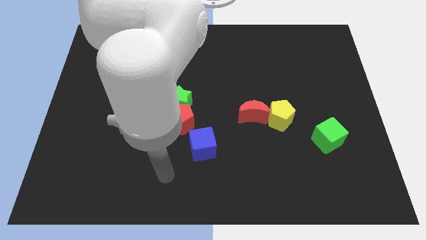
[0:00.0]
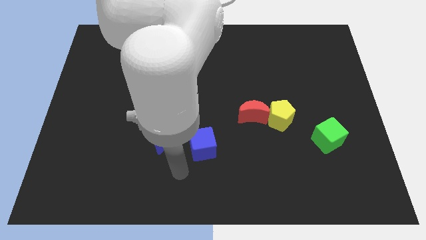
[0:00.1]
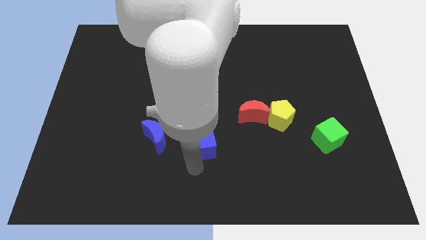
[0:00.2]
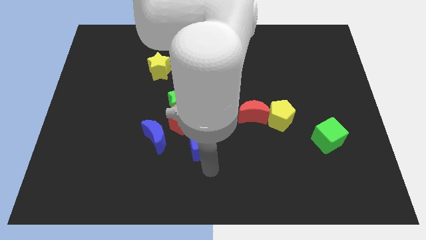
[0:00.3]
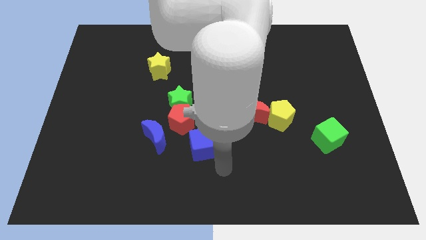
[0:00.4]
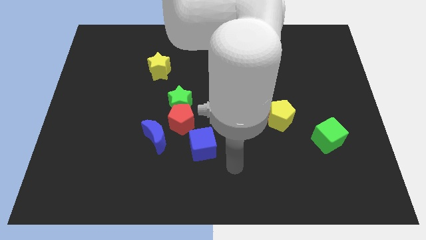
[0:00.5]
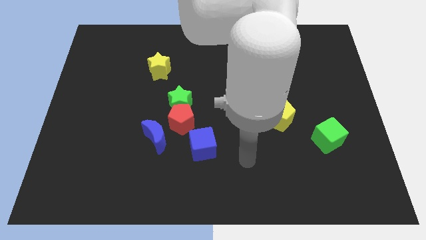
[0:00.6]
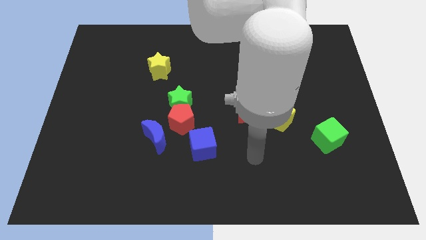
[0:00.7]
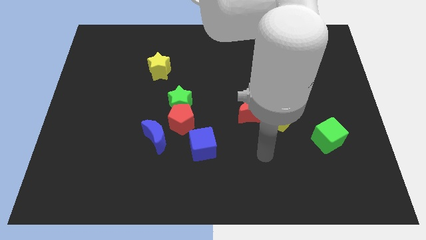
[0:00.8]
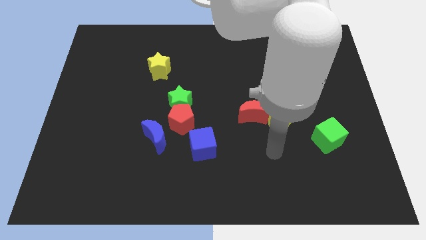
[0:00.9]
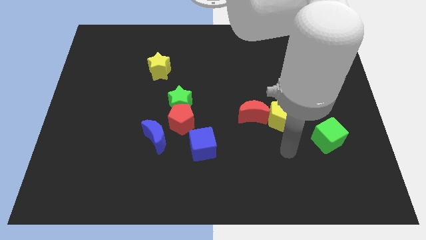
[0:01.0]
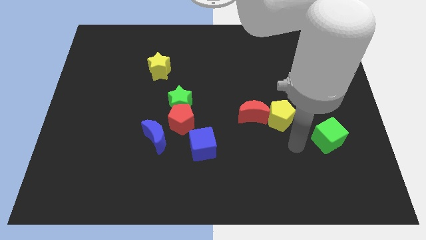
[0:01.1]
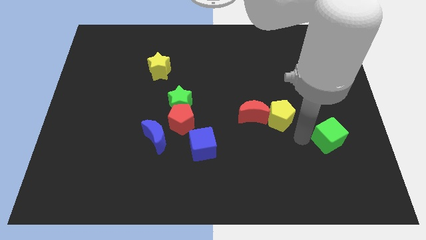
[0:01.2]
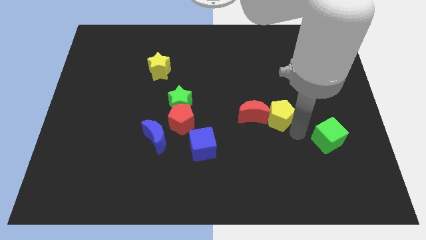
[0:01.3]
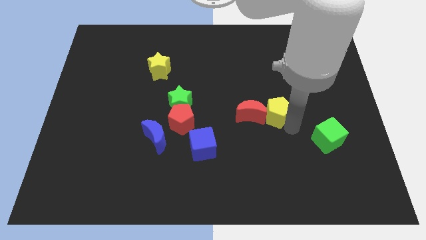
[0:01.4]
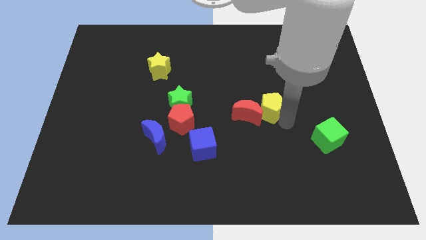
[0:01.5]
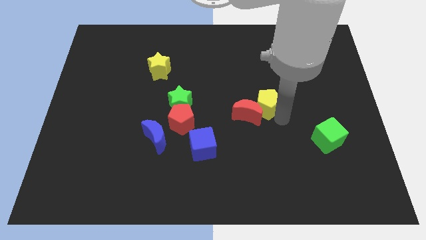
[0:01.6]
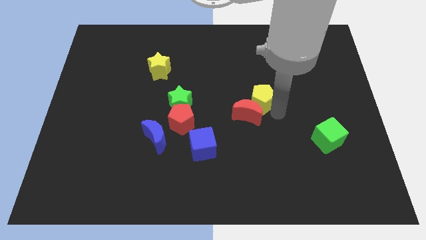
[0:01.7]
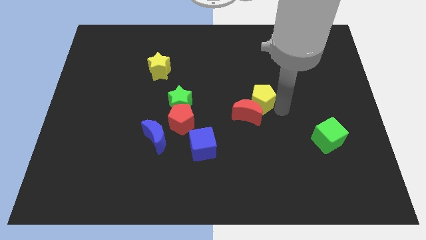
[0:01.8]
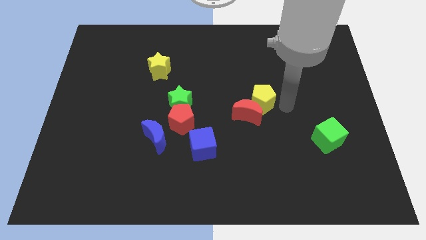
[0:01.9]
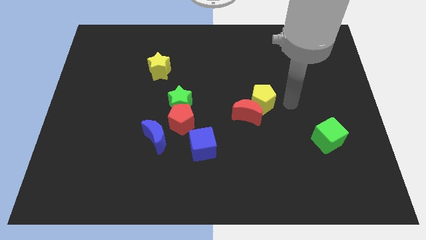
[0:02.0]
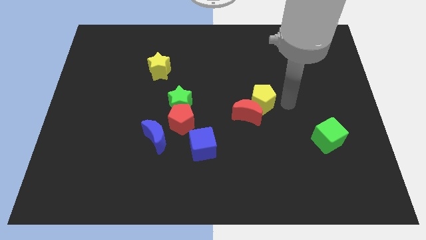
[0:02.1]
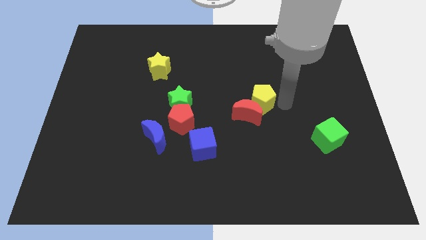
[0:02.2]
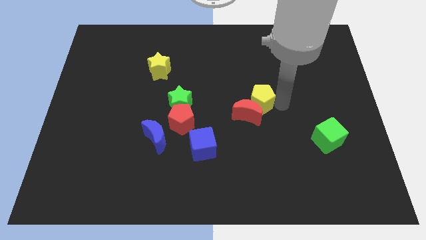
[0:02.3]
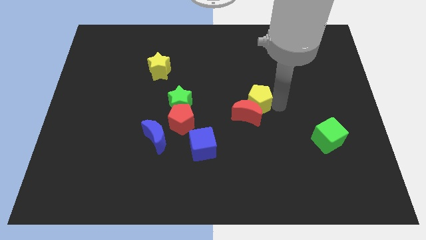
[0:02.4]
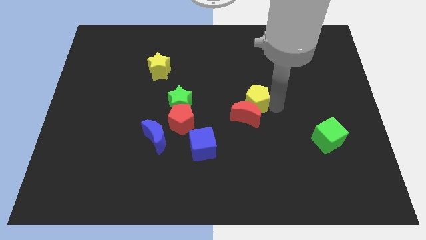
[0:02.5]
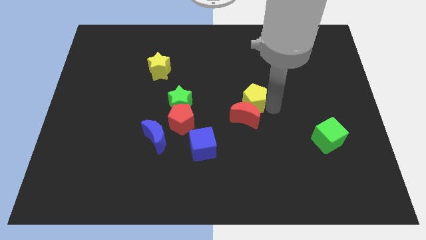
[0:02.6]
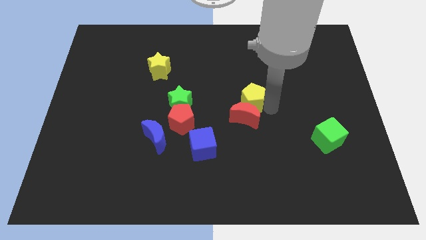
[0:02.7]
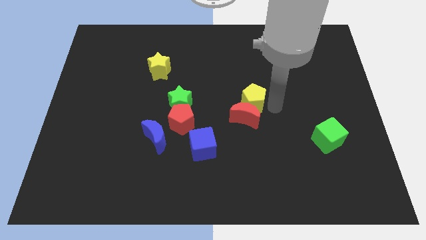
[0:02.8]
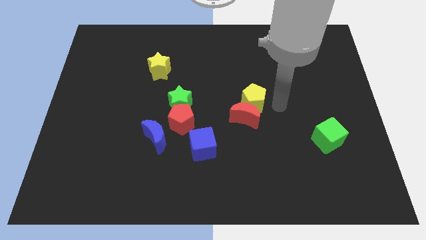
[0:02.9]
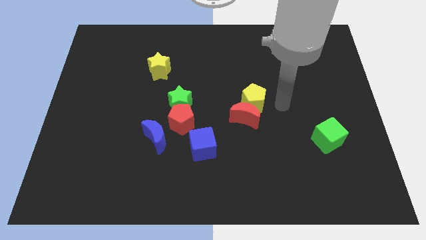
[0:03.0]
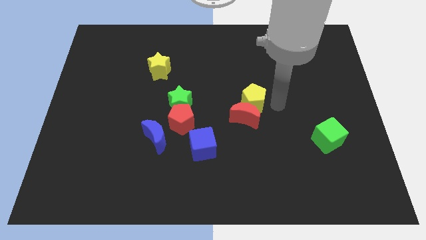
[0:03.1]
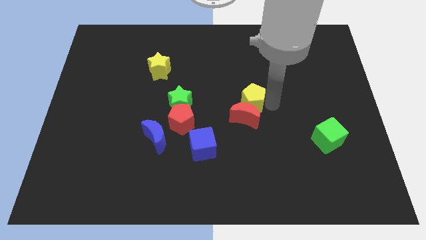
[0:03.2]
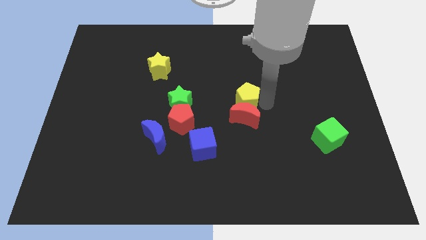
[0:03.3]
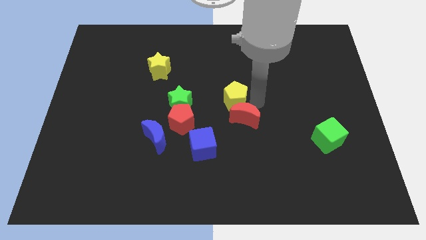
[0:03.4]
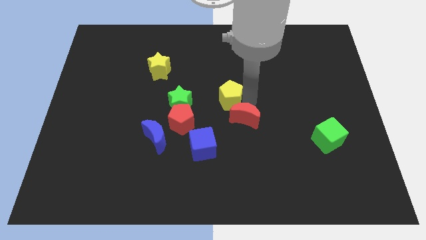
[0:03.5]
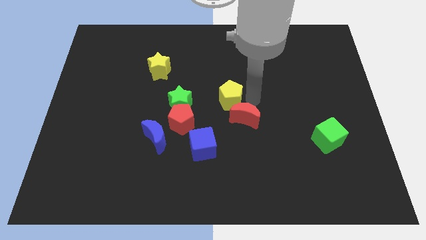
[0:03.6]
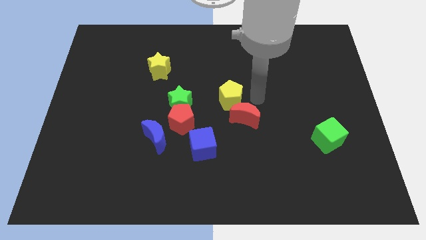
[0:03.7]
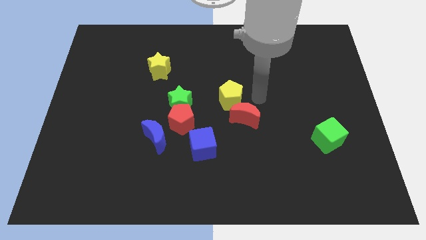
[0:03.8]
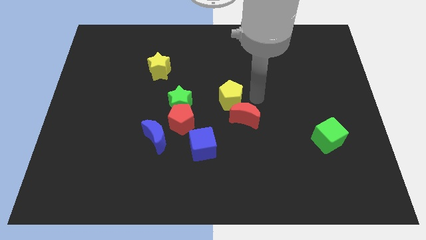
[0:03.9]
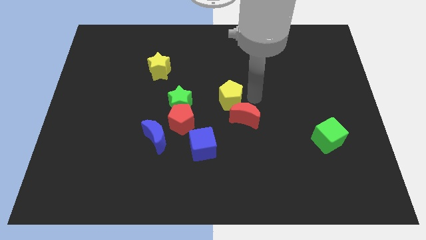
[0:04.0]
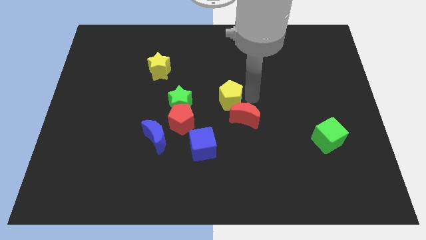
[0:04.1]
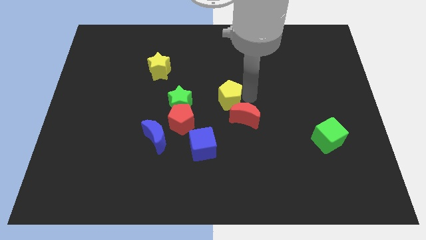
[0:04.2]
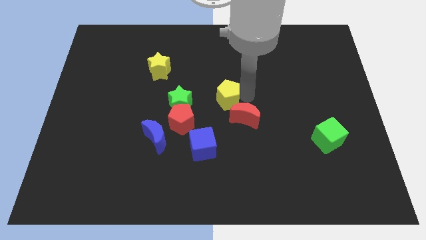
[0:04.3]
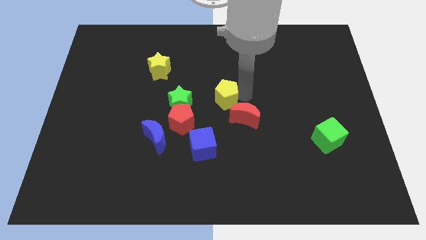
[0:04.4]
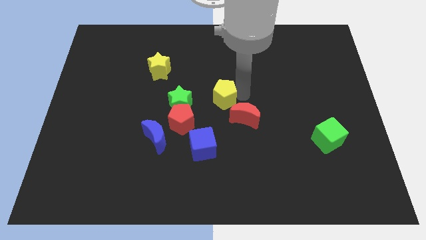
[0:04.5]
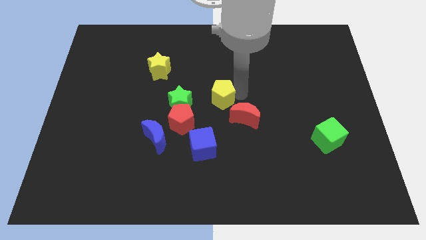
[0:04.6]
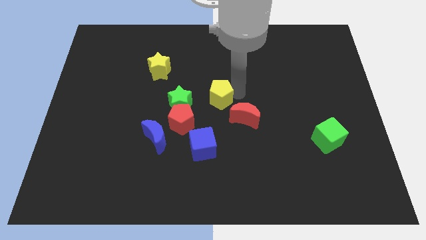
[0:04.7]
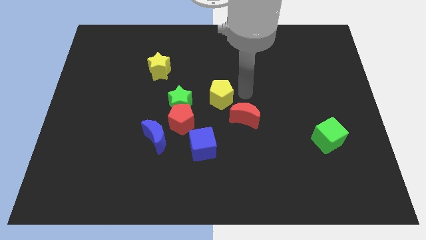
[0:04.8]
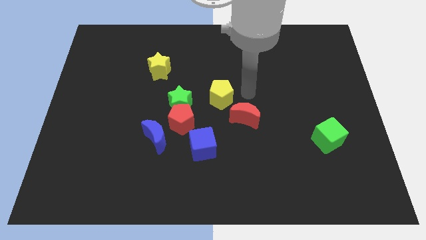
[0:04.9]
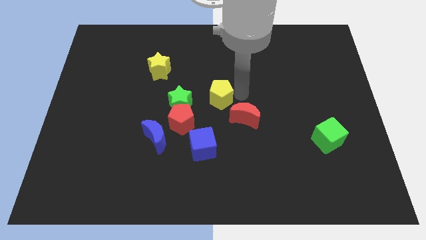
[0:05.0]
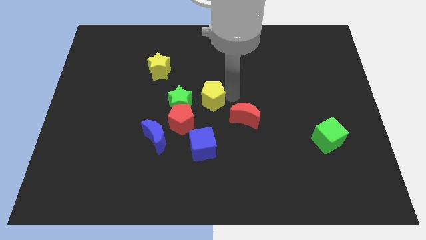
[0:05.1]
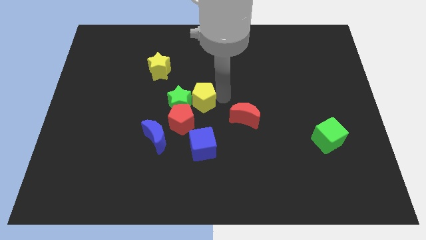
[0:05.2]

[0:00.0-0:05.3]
slide the yellow pentagon close to the green star

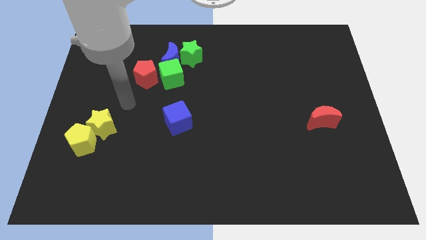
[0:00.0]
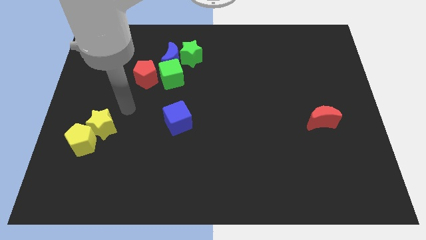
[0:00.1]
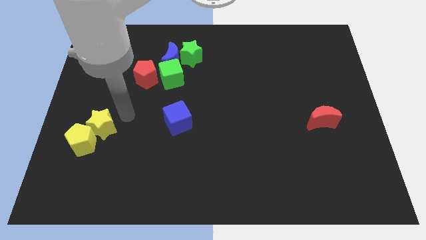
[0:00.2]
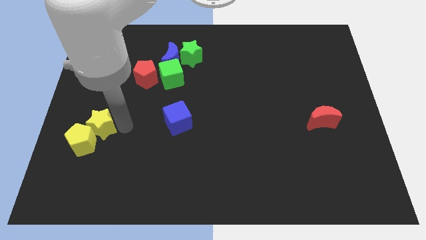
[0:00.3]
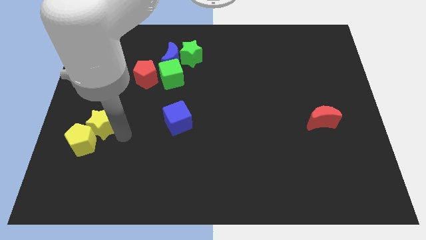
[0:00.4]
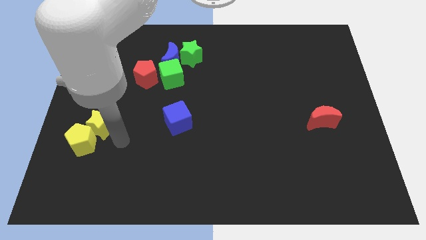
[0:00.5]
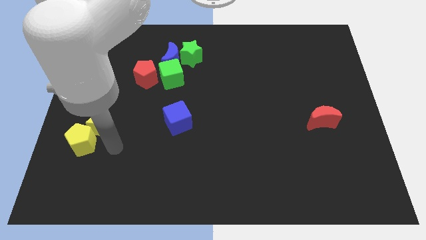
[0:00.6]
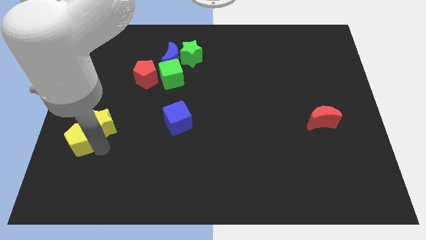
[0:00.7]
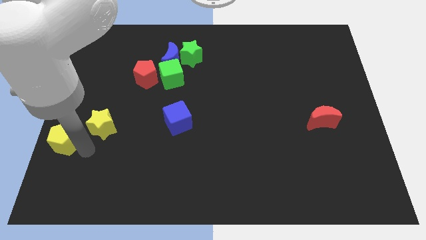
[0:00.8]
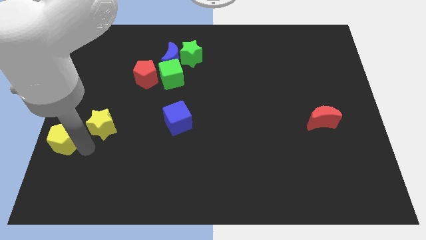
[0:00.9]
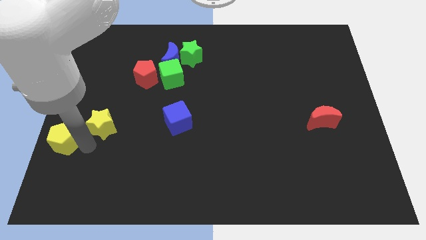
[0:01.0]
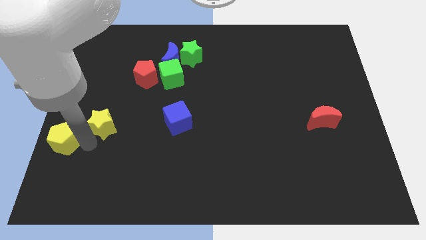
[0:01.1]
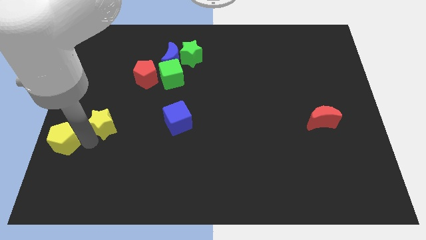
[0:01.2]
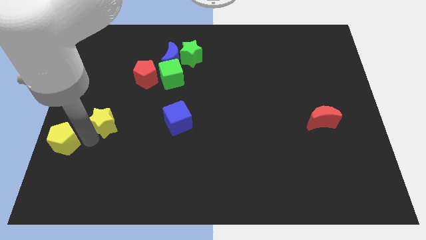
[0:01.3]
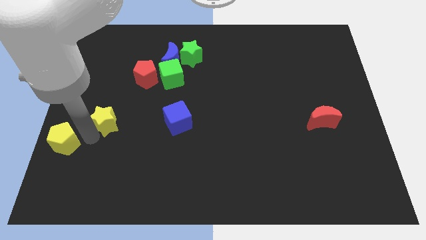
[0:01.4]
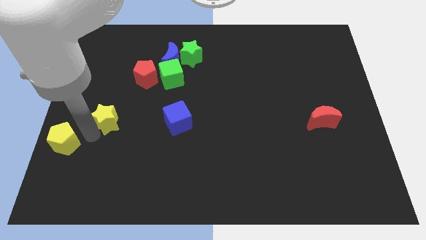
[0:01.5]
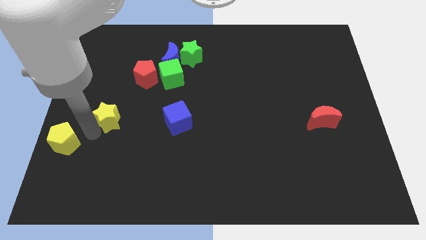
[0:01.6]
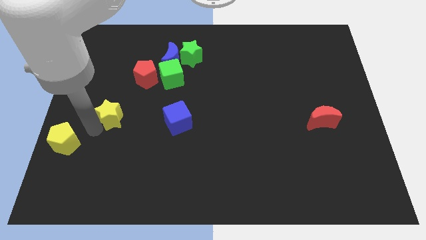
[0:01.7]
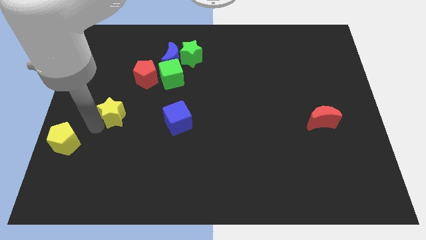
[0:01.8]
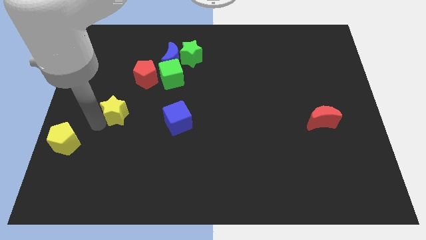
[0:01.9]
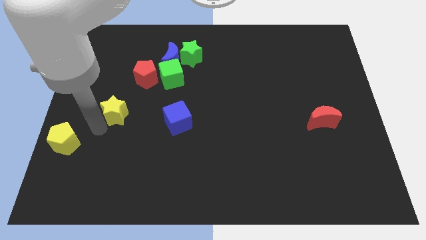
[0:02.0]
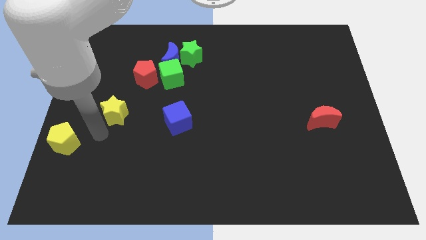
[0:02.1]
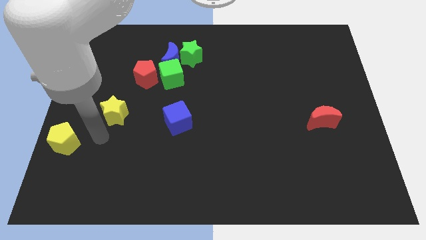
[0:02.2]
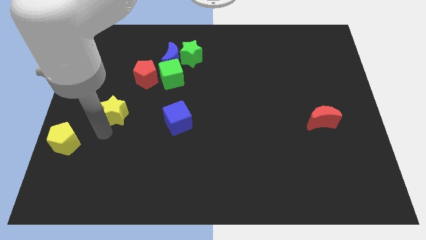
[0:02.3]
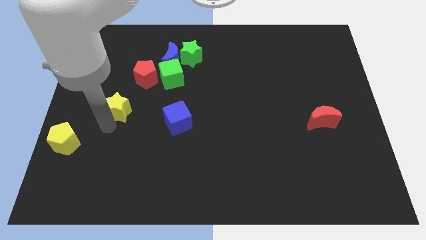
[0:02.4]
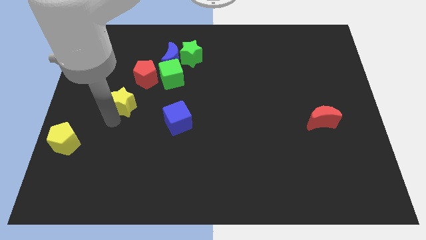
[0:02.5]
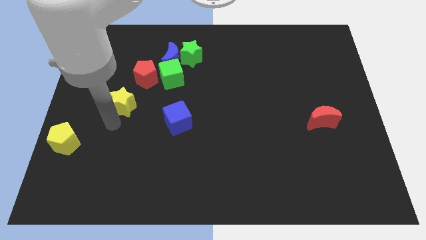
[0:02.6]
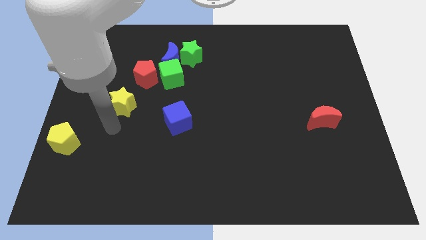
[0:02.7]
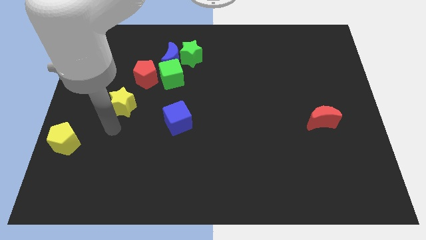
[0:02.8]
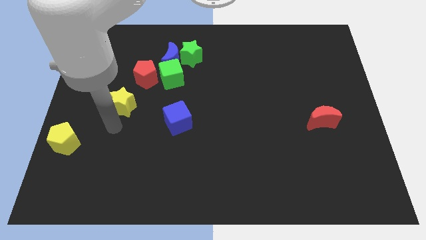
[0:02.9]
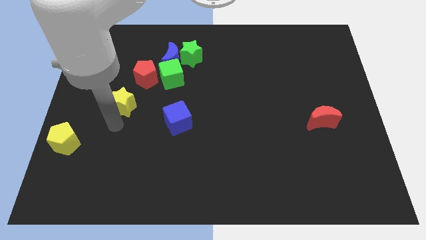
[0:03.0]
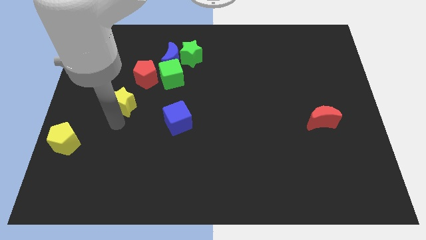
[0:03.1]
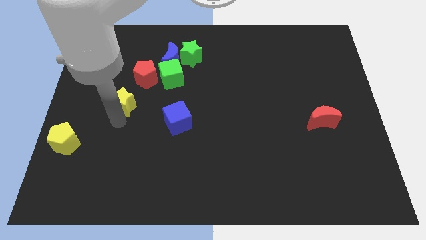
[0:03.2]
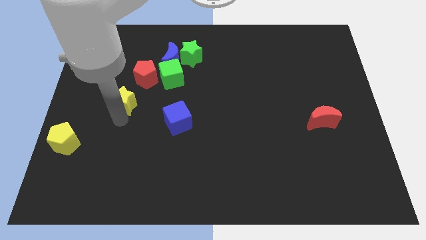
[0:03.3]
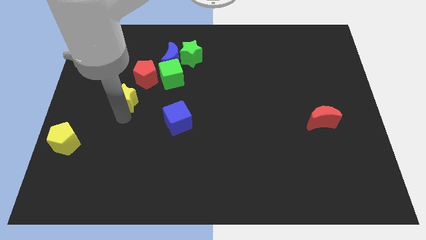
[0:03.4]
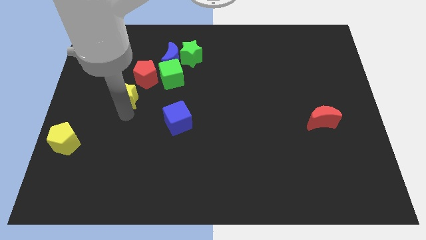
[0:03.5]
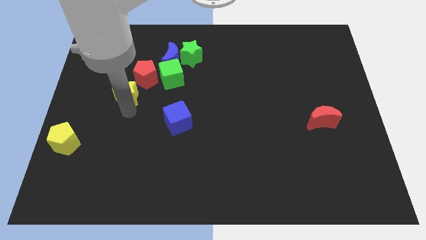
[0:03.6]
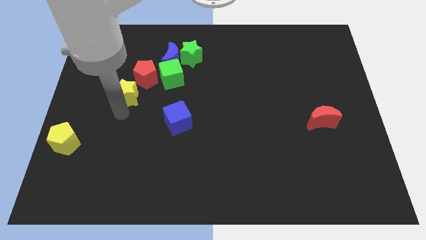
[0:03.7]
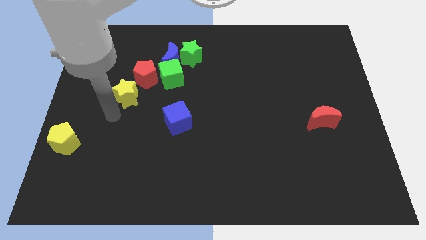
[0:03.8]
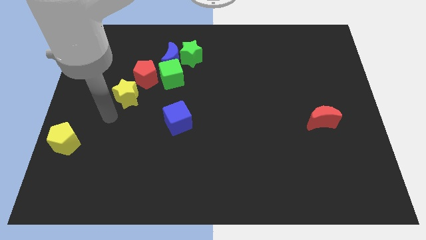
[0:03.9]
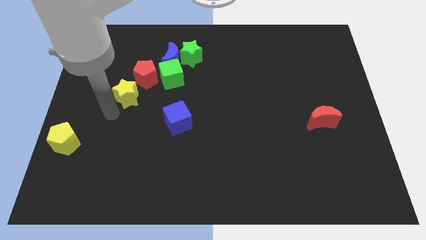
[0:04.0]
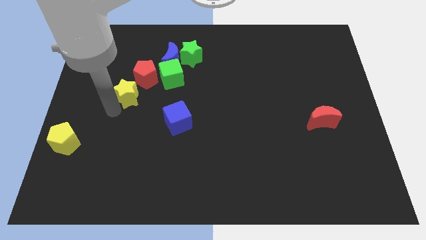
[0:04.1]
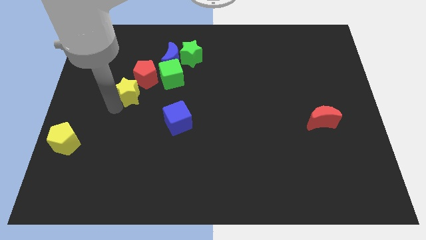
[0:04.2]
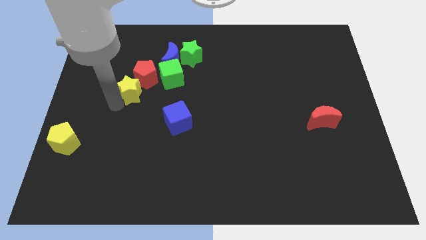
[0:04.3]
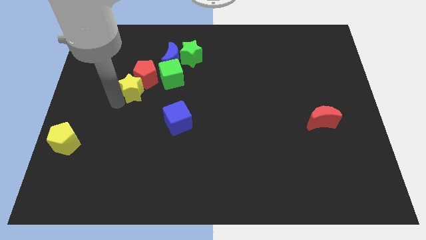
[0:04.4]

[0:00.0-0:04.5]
push the yellow star to the red pentagon
